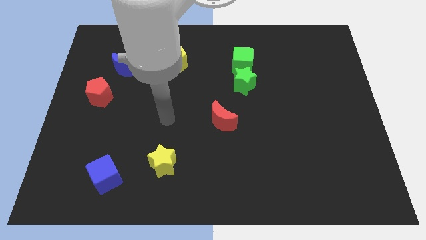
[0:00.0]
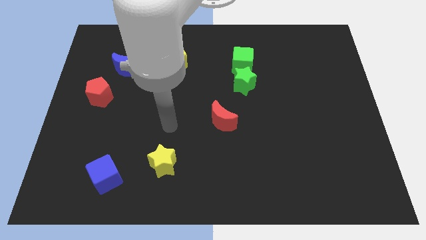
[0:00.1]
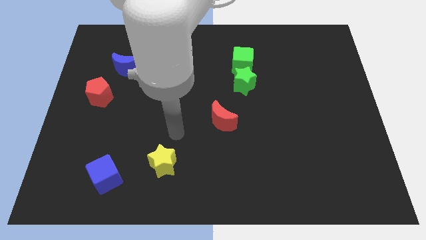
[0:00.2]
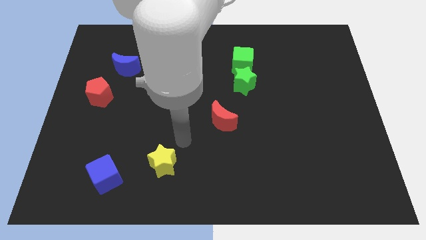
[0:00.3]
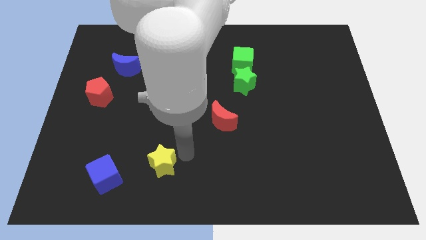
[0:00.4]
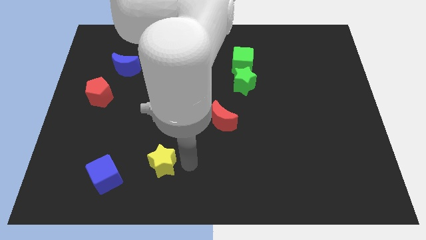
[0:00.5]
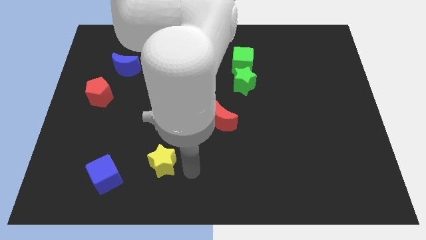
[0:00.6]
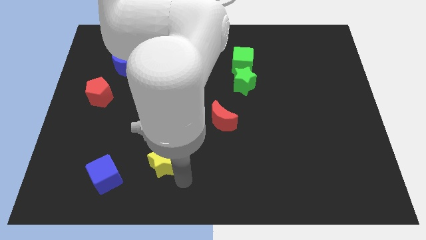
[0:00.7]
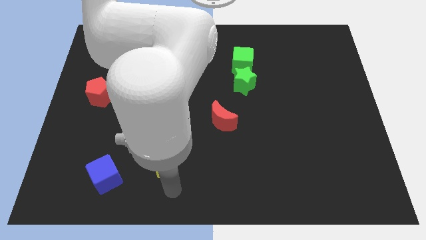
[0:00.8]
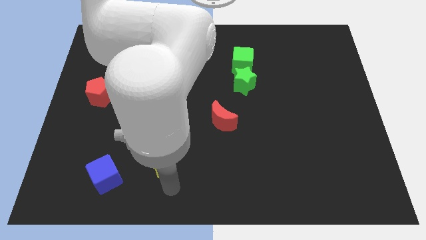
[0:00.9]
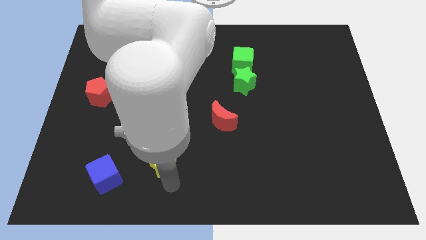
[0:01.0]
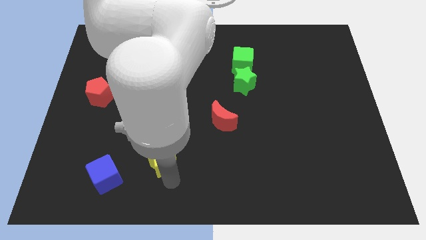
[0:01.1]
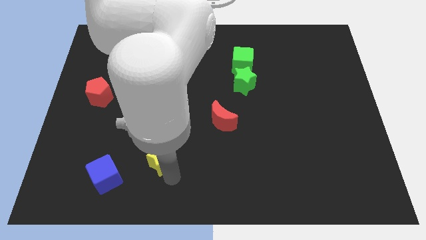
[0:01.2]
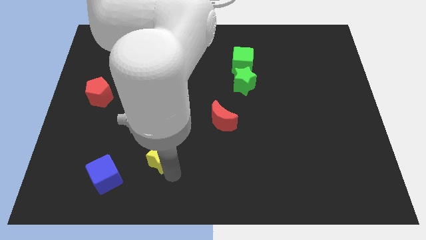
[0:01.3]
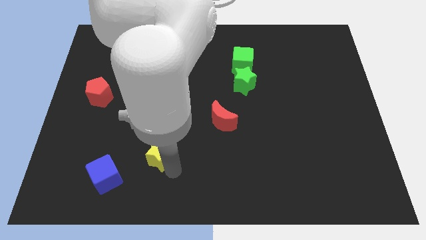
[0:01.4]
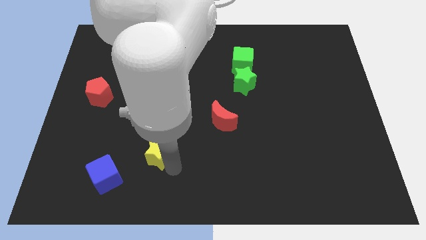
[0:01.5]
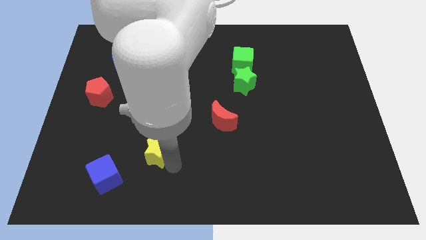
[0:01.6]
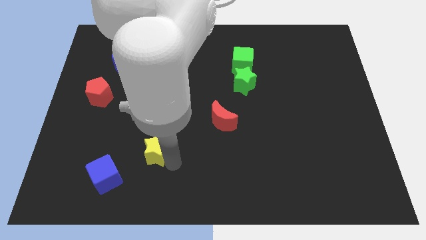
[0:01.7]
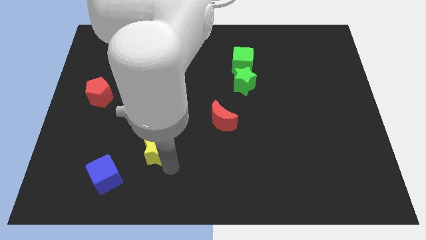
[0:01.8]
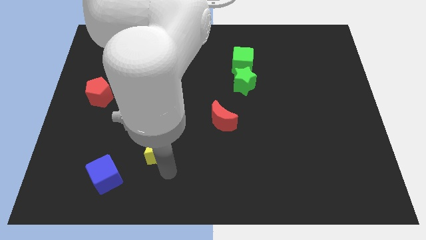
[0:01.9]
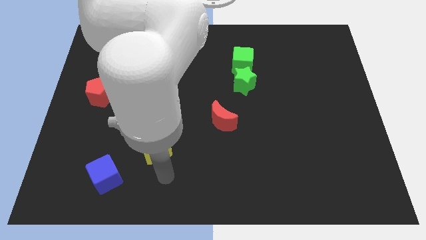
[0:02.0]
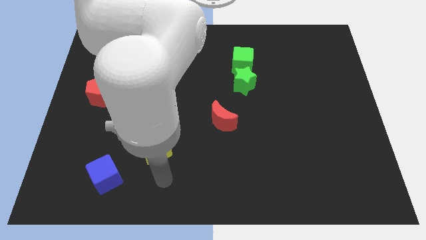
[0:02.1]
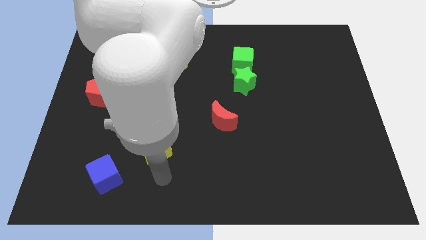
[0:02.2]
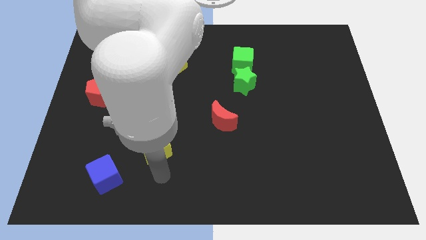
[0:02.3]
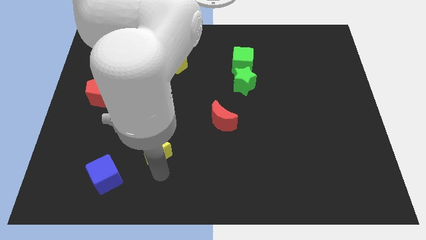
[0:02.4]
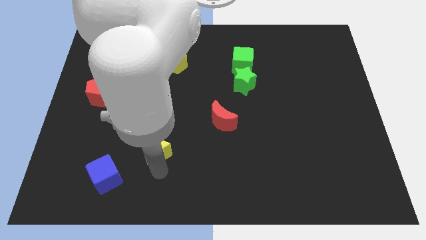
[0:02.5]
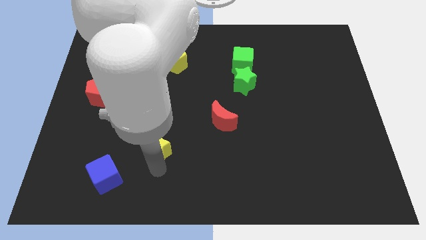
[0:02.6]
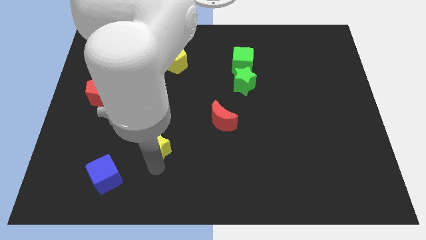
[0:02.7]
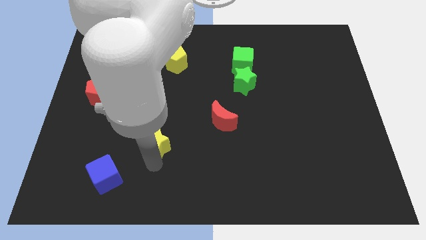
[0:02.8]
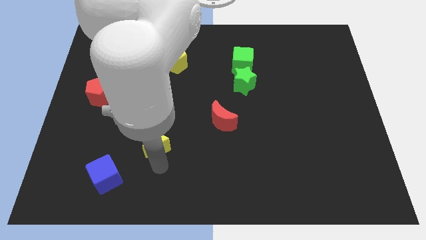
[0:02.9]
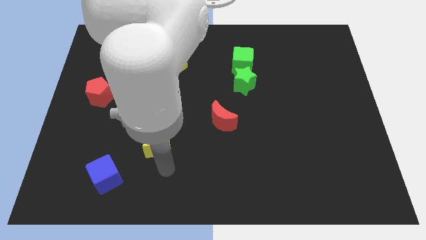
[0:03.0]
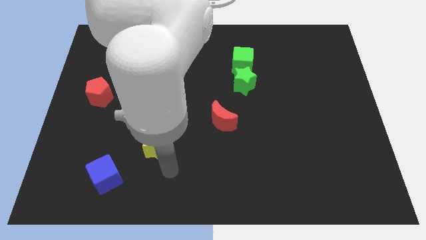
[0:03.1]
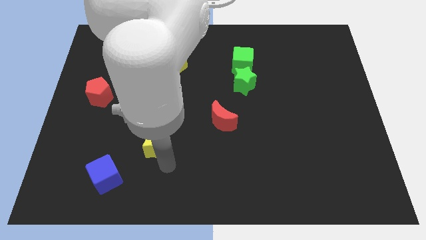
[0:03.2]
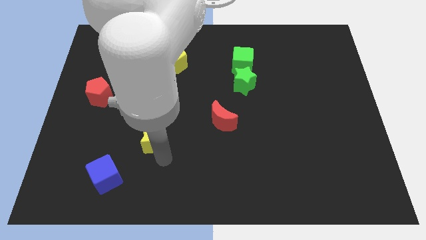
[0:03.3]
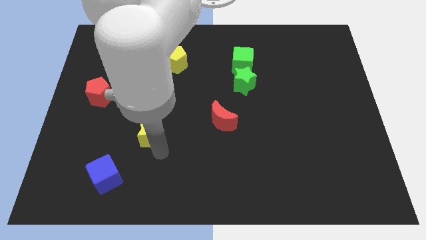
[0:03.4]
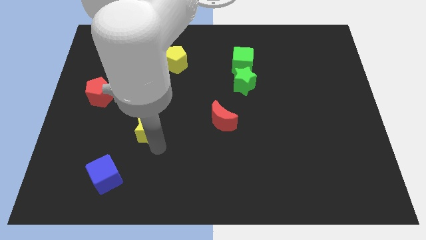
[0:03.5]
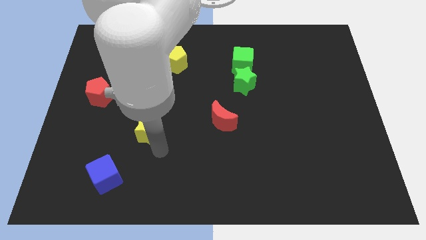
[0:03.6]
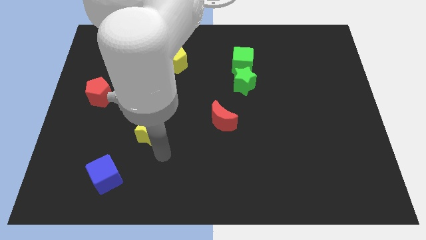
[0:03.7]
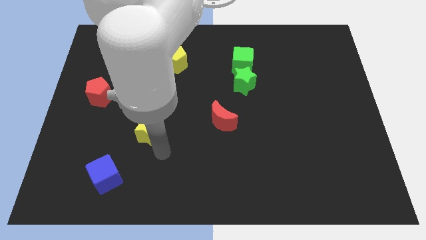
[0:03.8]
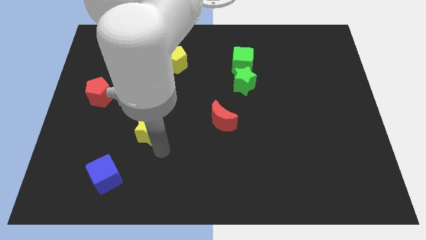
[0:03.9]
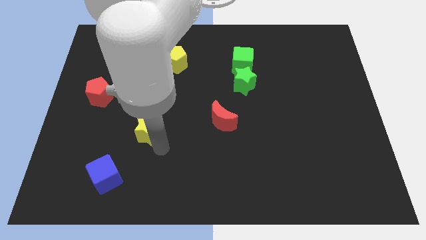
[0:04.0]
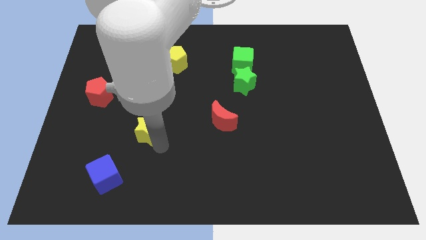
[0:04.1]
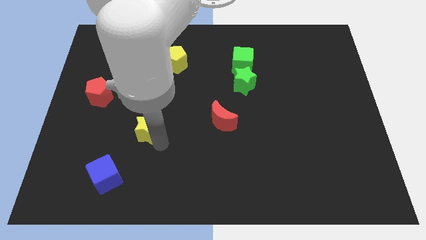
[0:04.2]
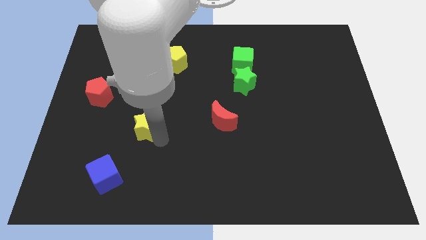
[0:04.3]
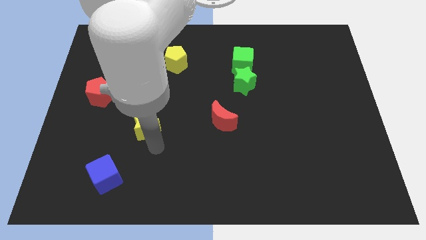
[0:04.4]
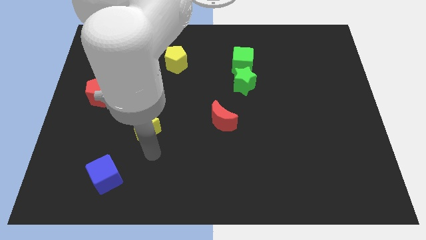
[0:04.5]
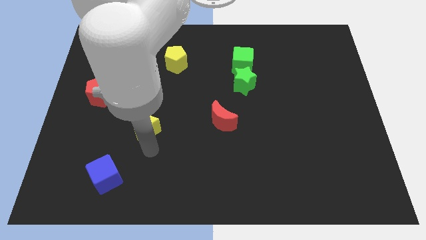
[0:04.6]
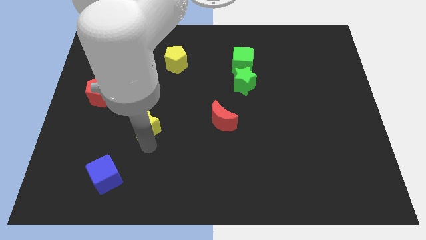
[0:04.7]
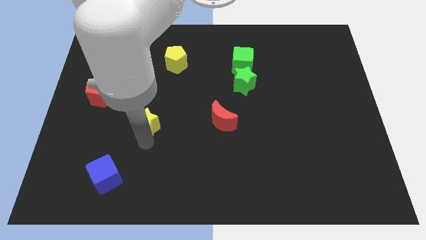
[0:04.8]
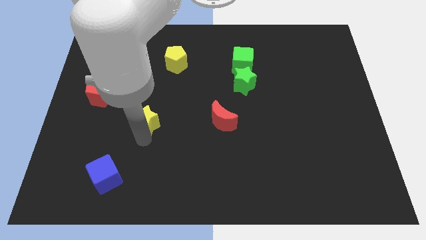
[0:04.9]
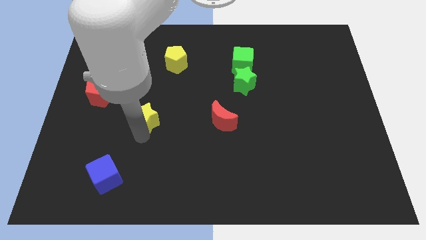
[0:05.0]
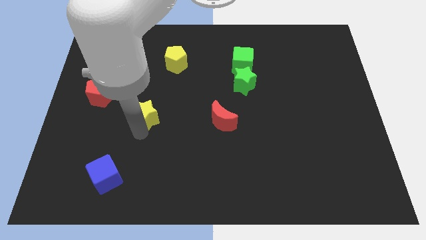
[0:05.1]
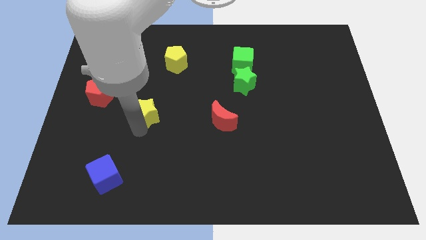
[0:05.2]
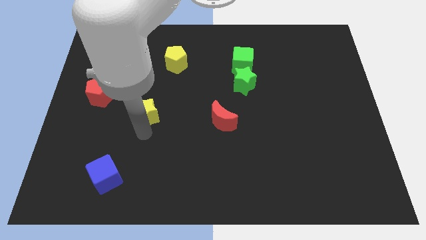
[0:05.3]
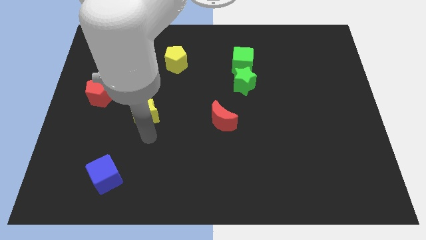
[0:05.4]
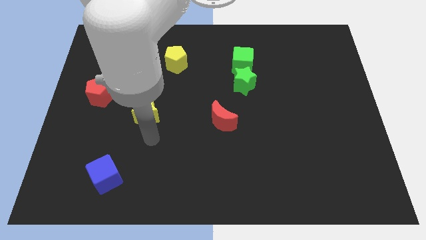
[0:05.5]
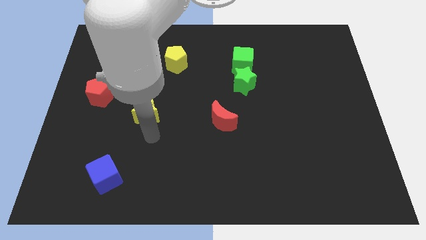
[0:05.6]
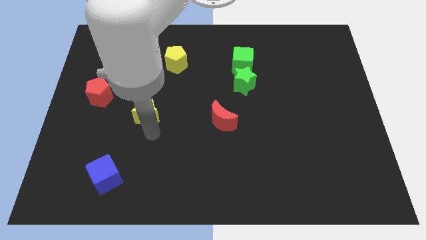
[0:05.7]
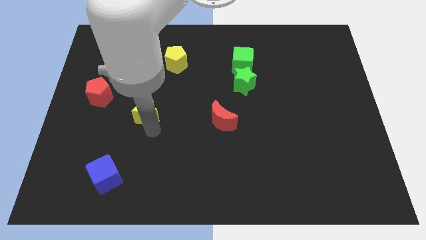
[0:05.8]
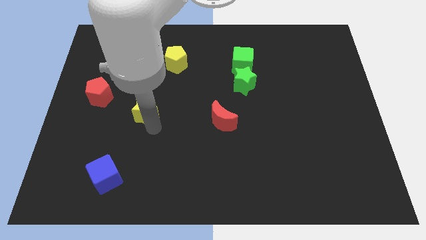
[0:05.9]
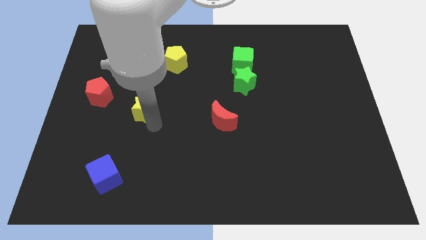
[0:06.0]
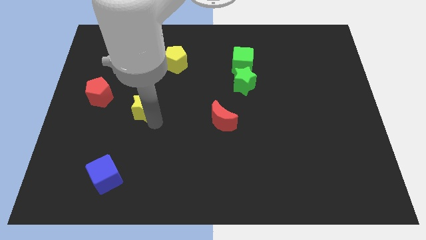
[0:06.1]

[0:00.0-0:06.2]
push the yellow star just right of the red pentagon

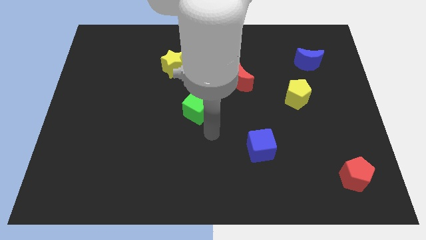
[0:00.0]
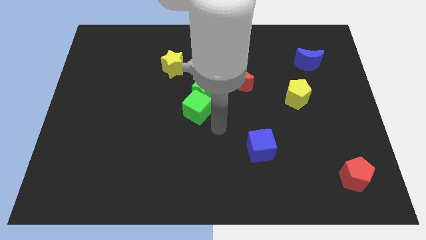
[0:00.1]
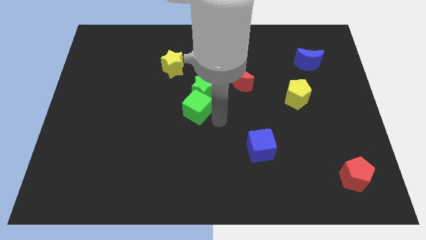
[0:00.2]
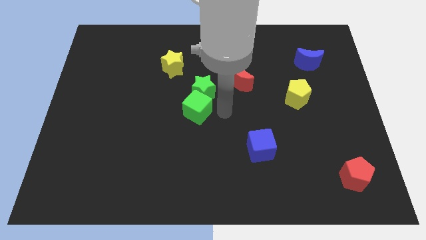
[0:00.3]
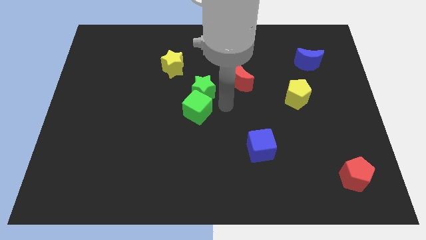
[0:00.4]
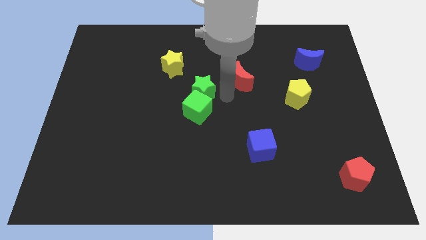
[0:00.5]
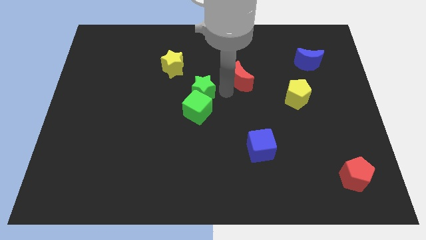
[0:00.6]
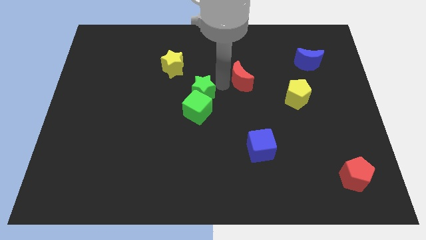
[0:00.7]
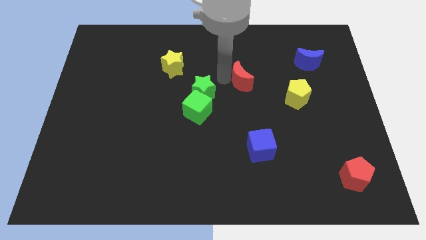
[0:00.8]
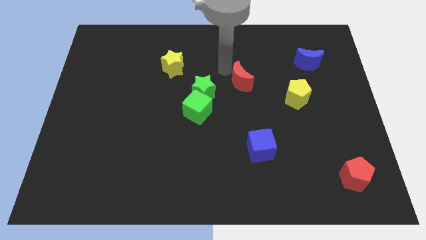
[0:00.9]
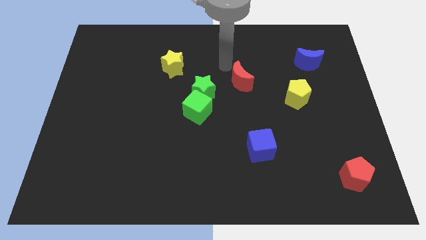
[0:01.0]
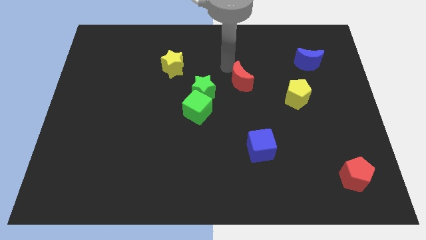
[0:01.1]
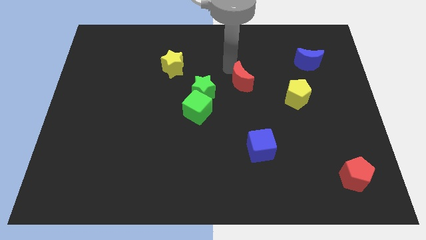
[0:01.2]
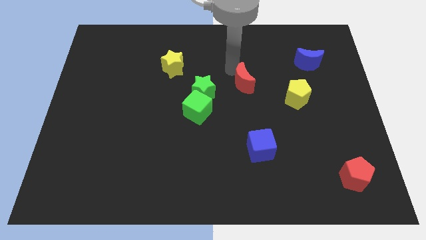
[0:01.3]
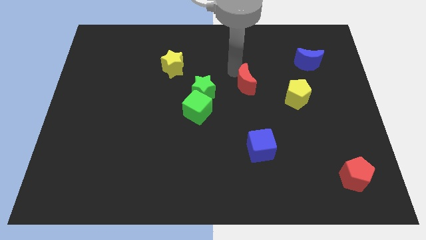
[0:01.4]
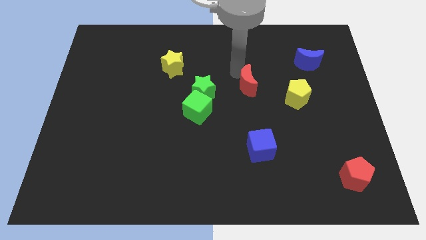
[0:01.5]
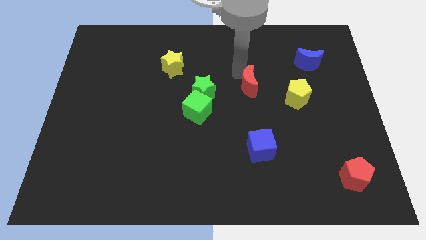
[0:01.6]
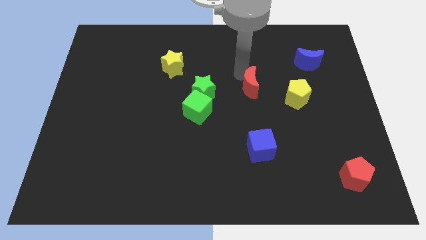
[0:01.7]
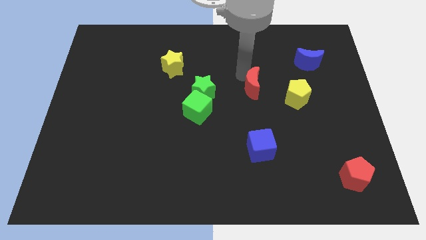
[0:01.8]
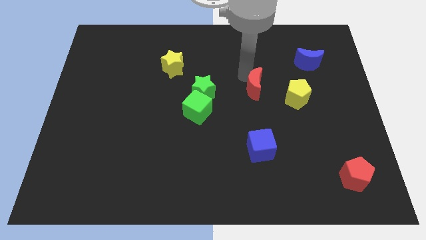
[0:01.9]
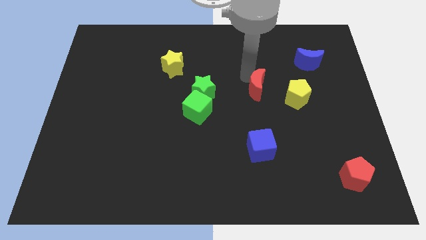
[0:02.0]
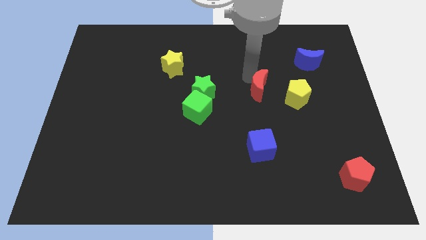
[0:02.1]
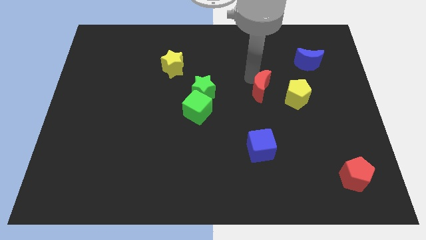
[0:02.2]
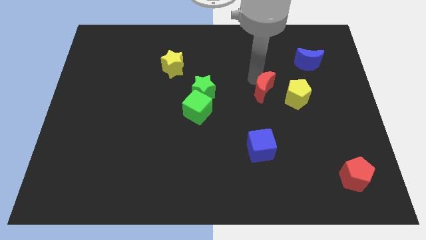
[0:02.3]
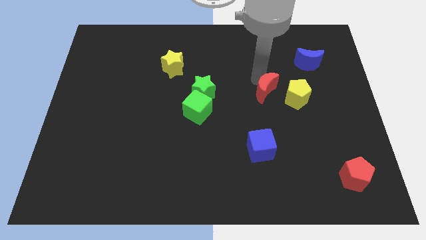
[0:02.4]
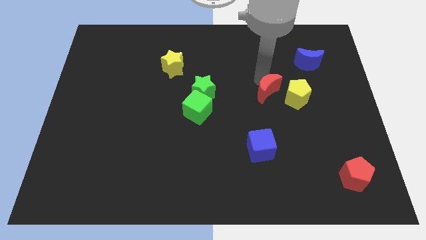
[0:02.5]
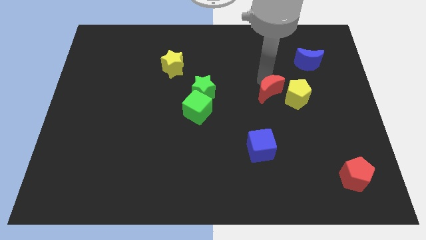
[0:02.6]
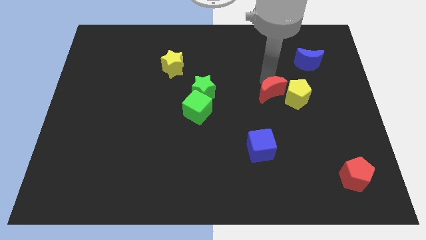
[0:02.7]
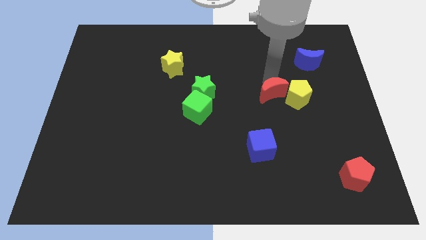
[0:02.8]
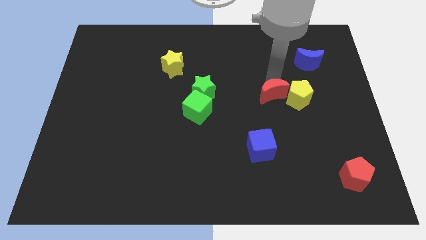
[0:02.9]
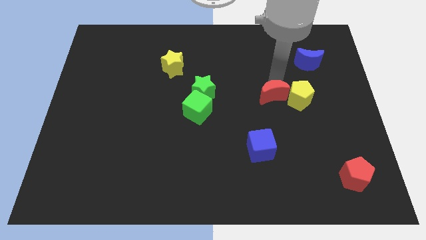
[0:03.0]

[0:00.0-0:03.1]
push the red moon to the bottom left of the yellow pentagon
